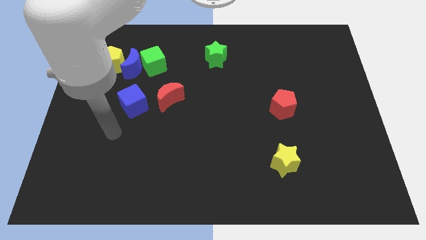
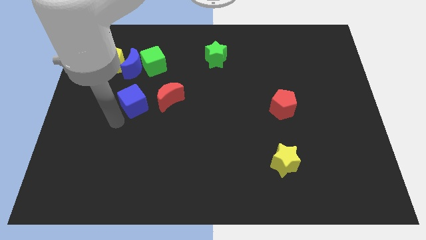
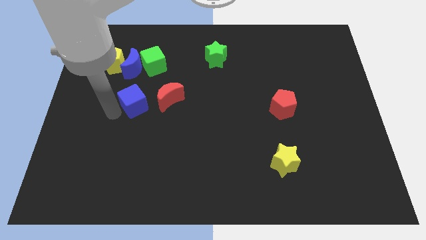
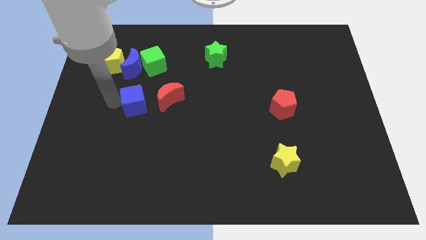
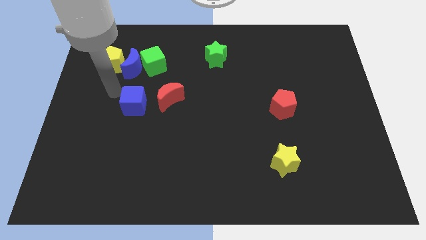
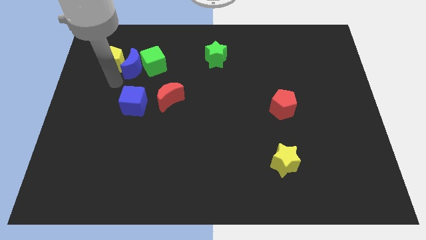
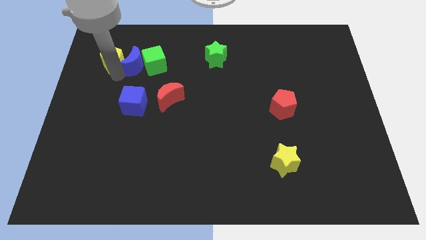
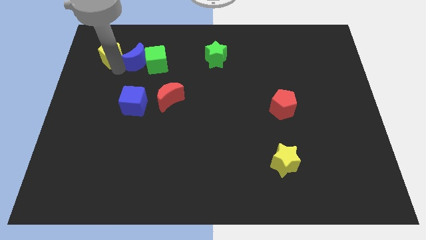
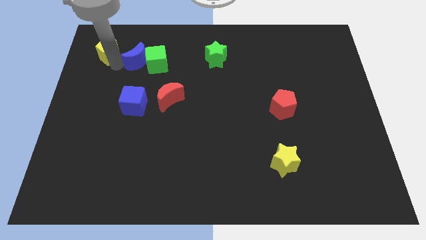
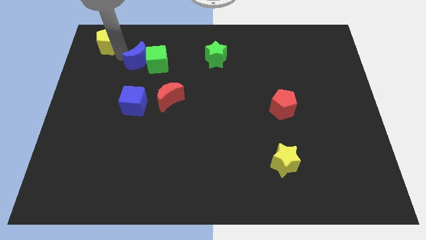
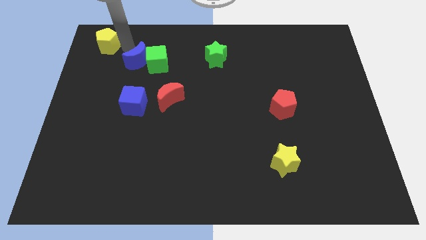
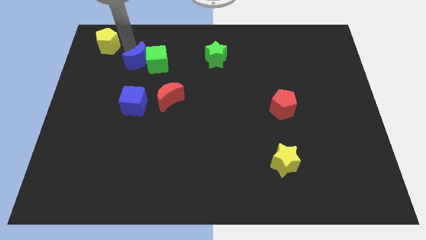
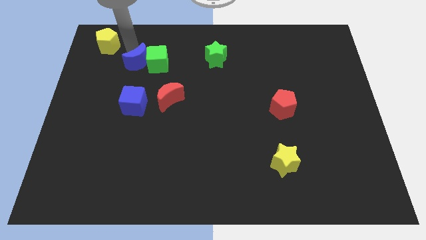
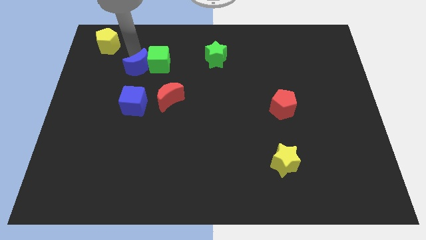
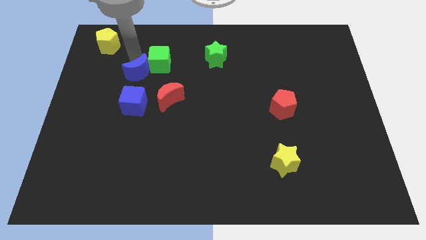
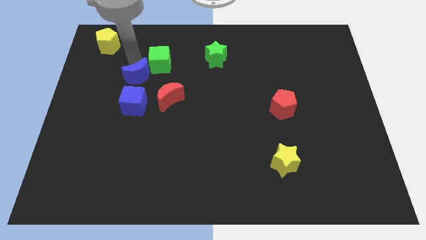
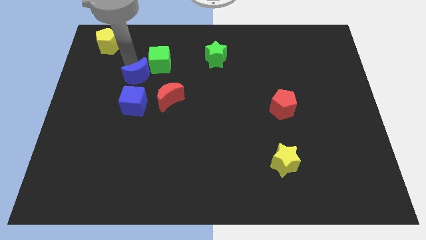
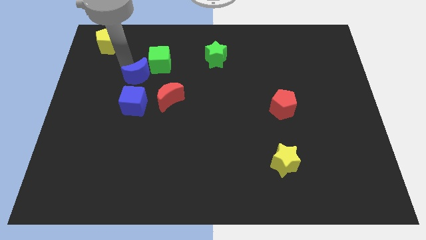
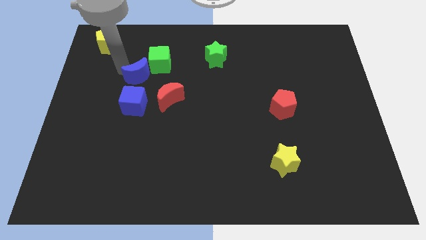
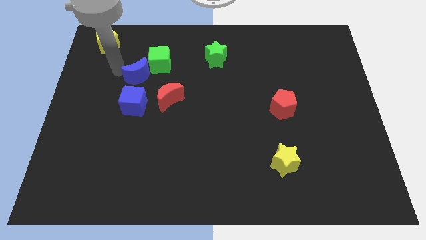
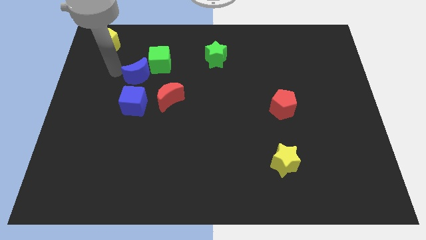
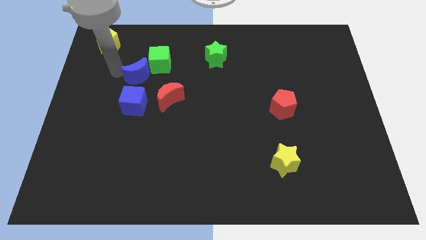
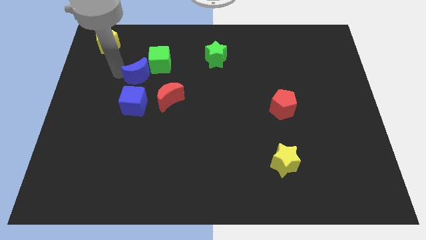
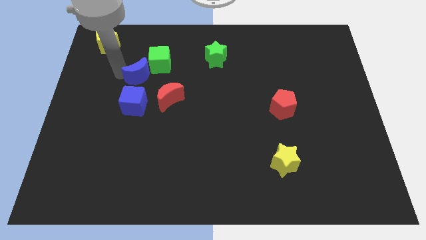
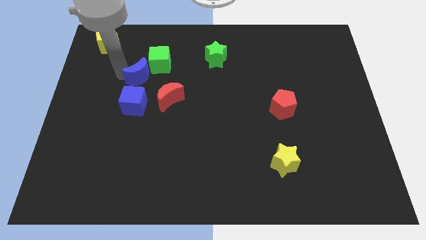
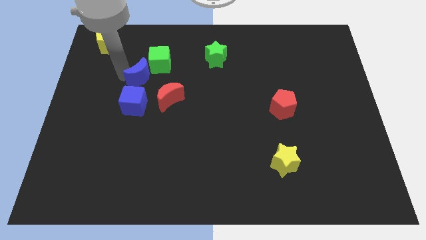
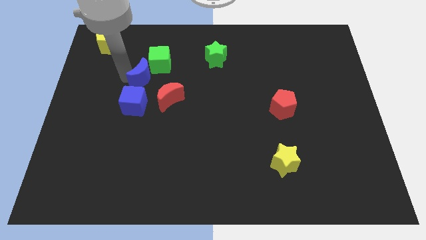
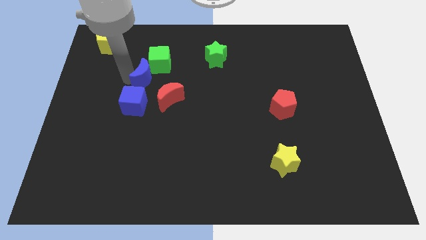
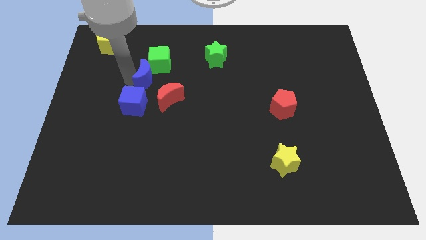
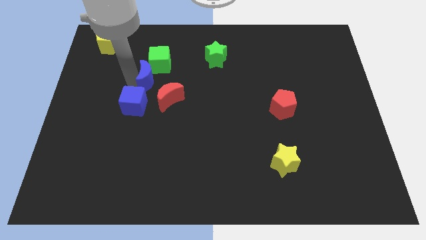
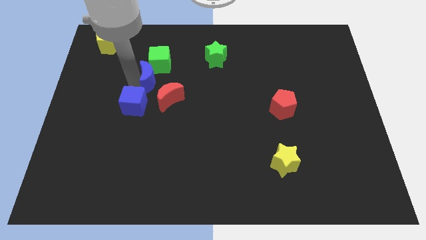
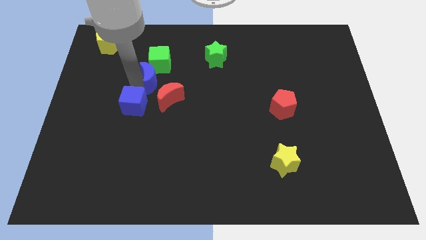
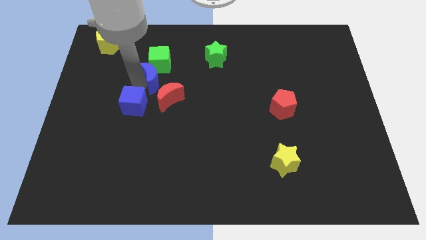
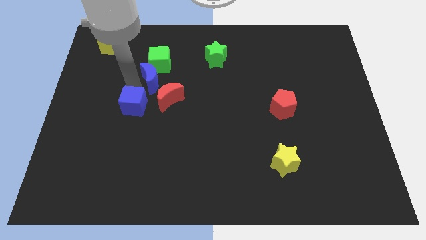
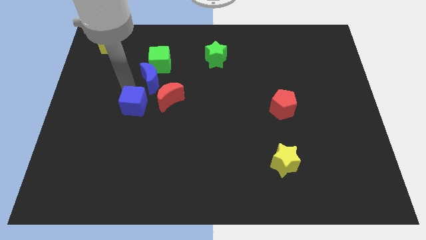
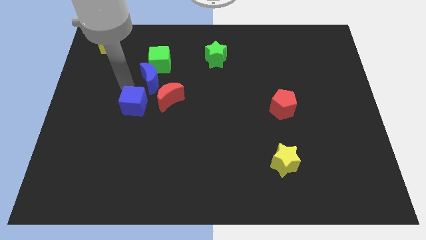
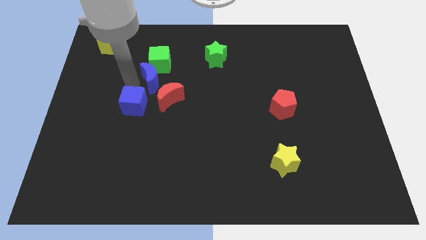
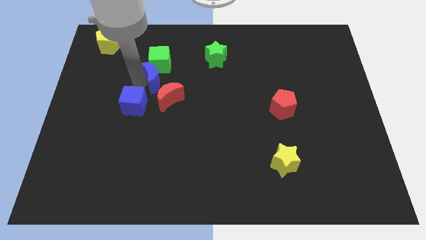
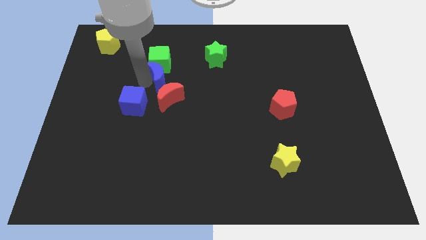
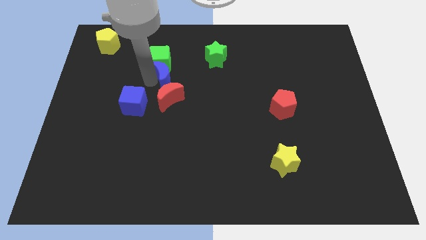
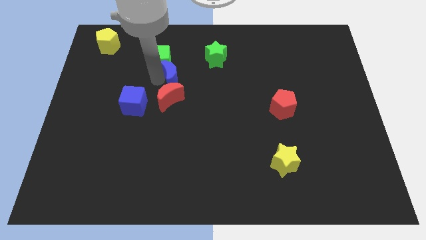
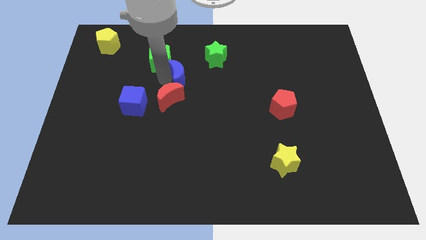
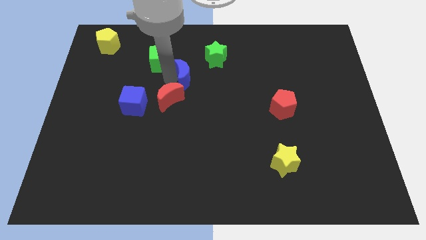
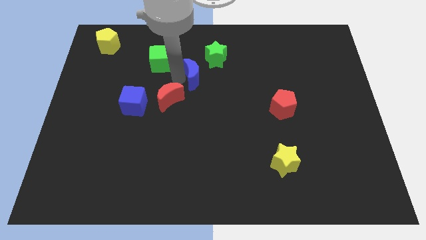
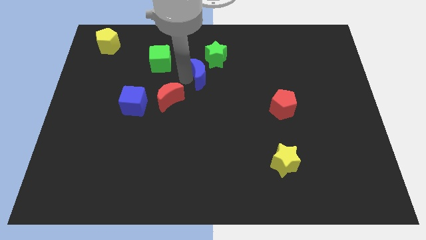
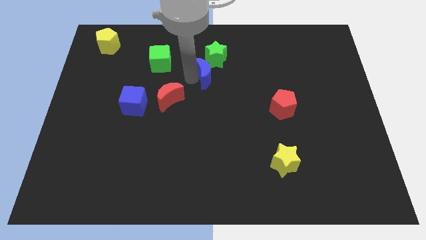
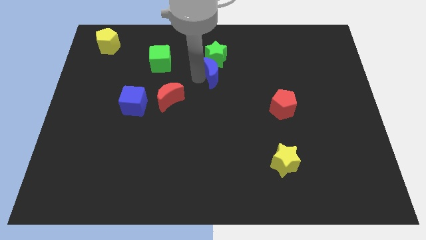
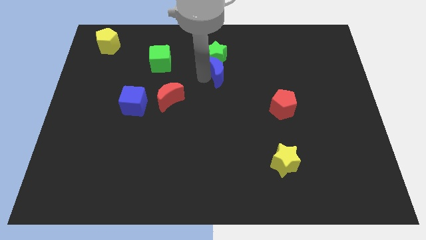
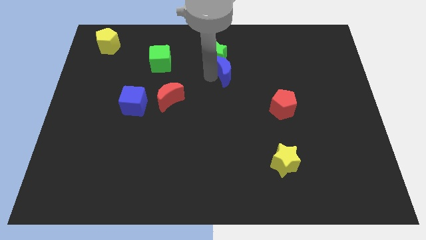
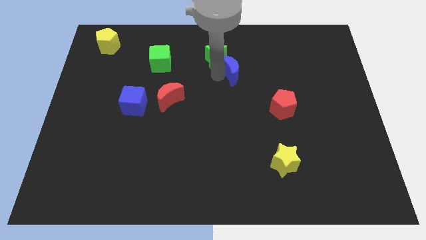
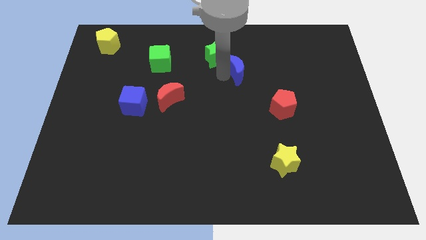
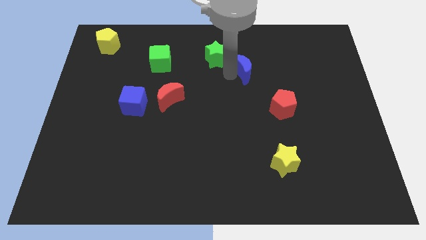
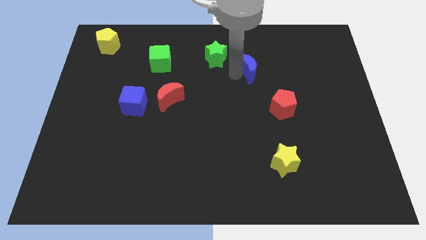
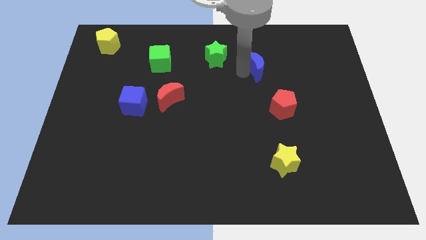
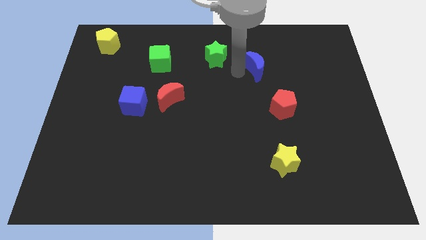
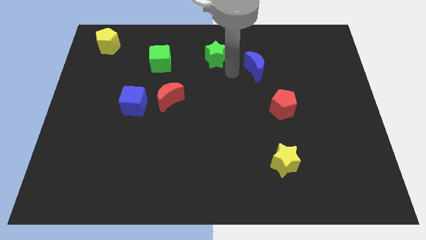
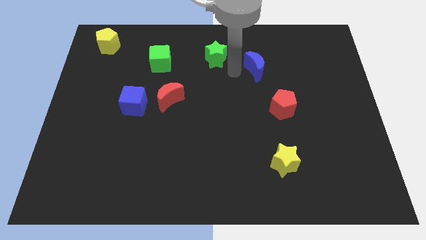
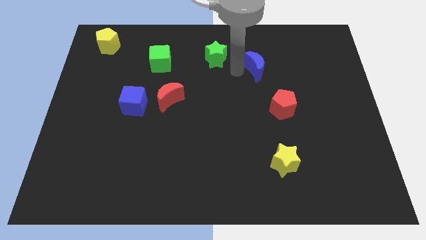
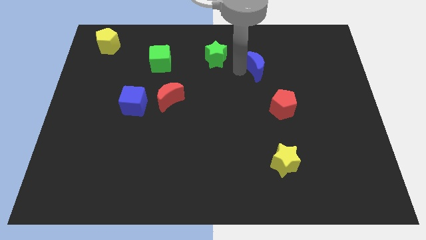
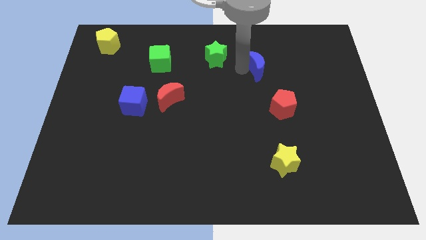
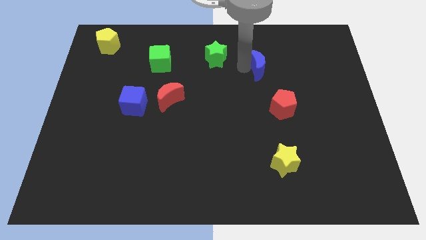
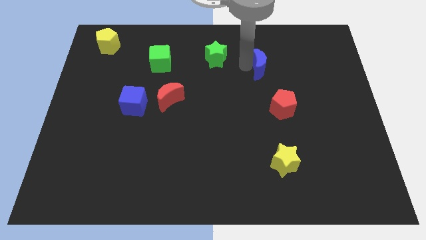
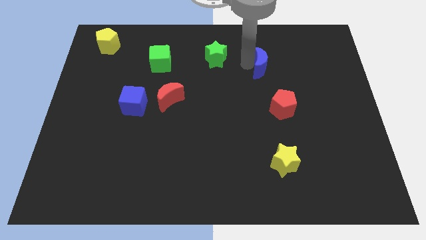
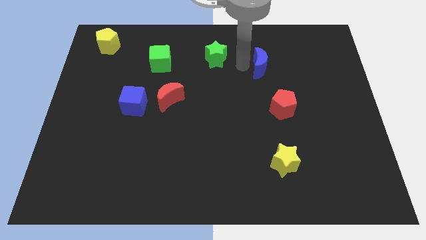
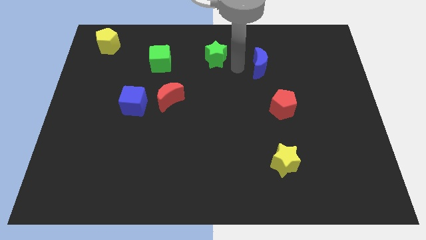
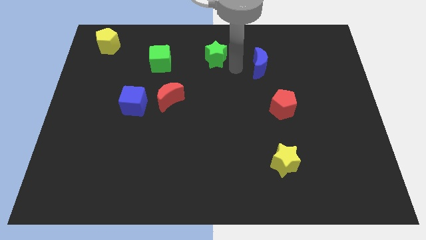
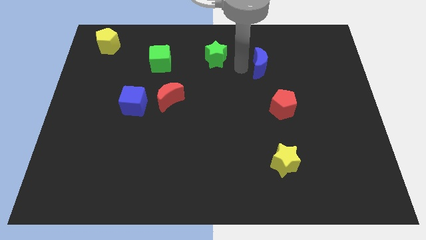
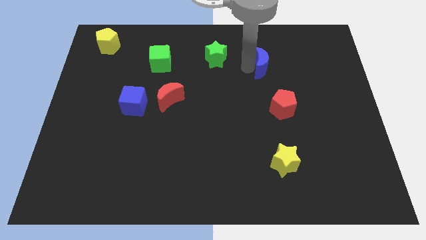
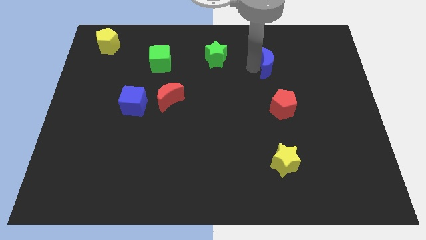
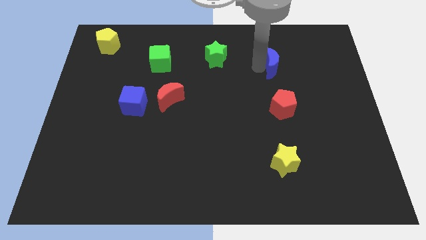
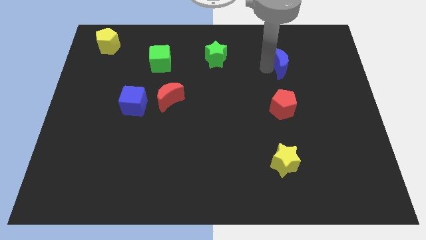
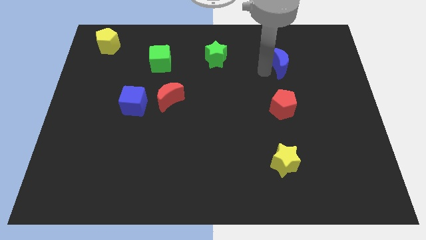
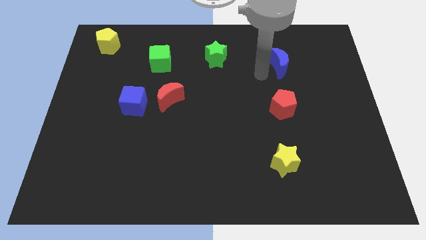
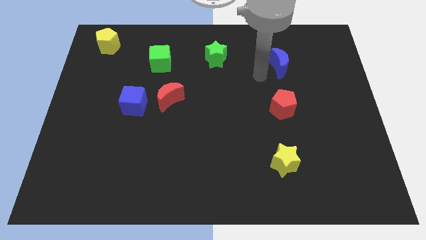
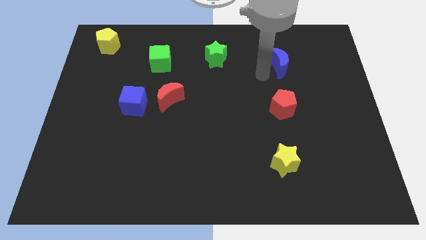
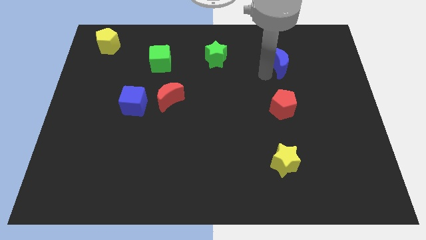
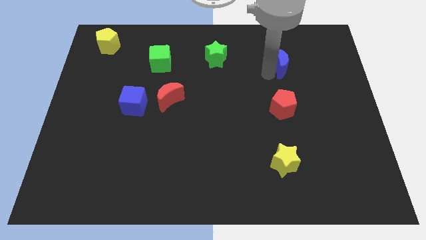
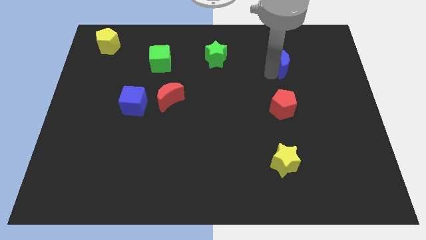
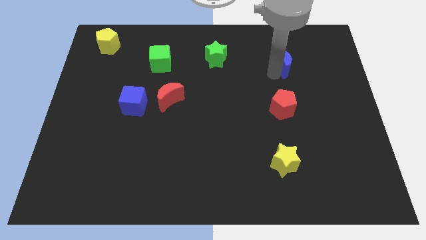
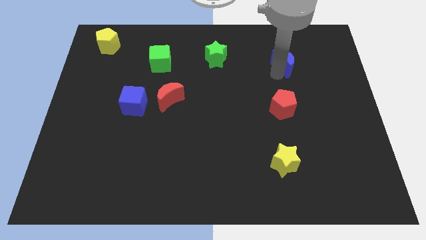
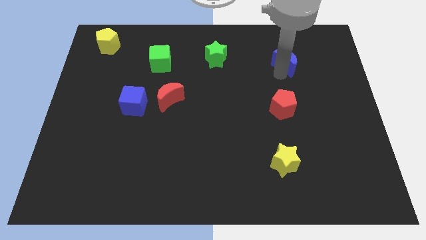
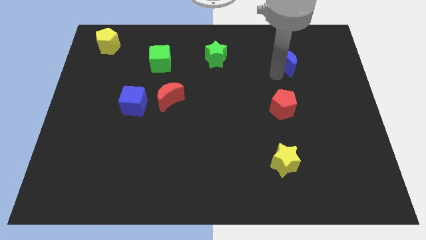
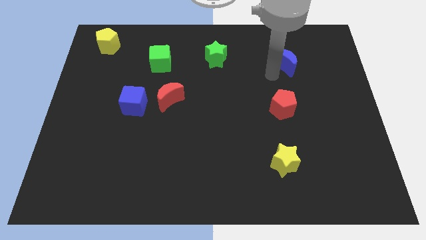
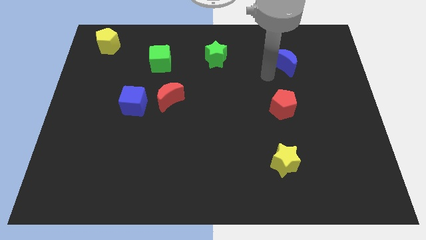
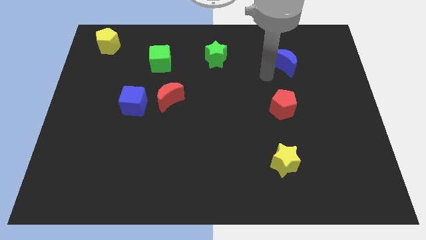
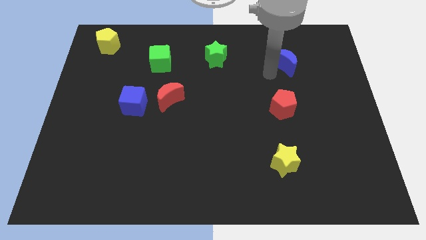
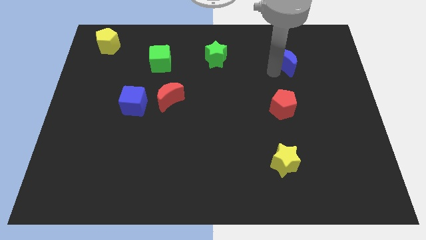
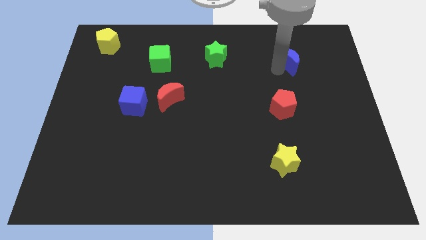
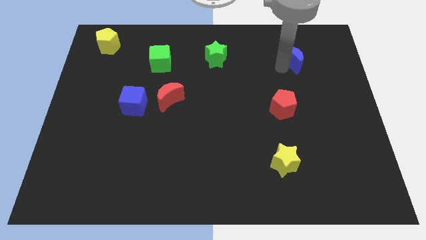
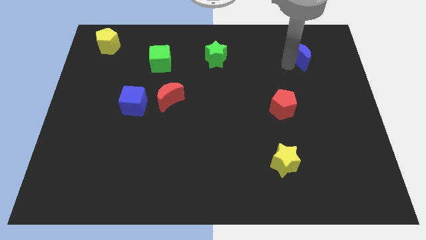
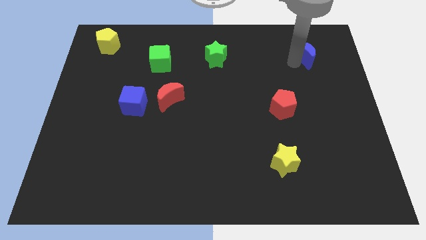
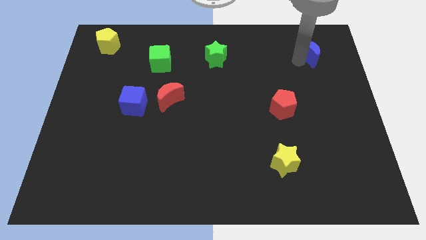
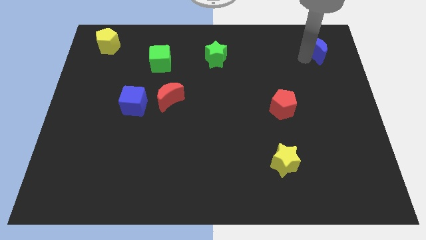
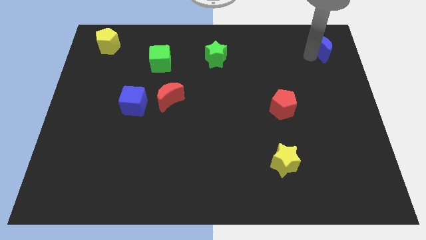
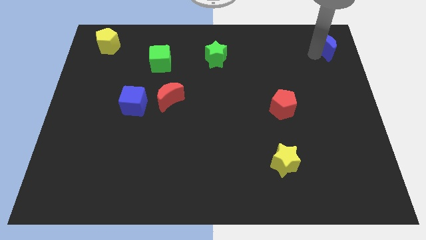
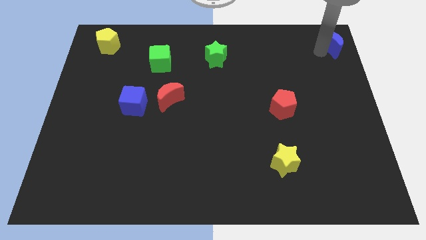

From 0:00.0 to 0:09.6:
put the blue moon to the upper right corner
